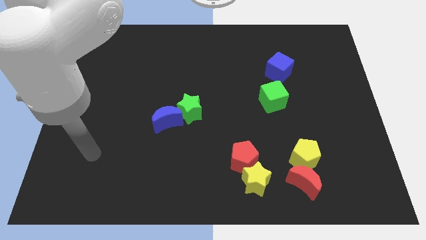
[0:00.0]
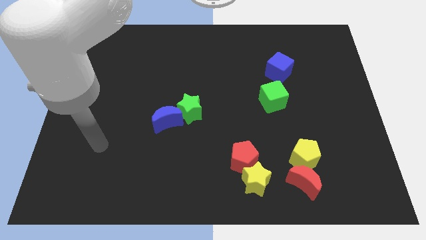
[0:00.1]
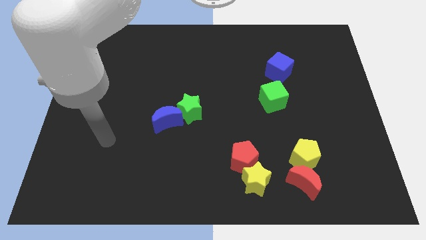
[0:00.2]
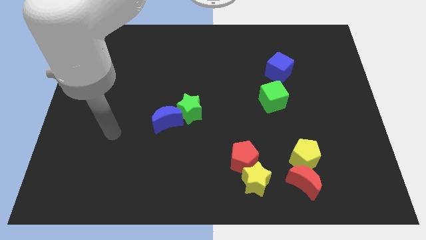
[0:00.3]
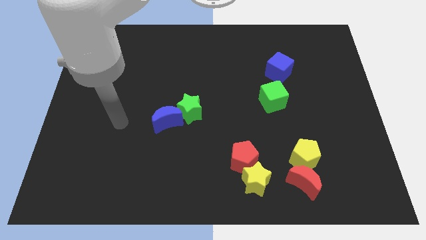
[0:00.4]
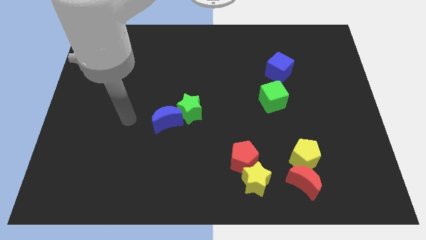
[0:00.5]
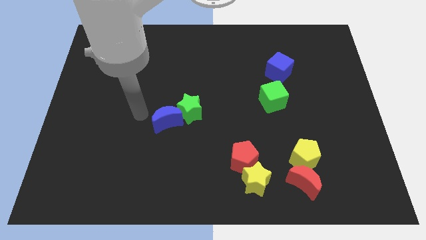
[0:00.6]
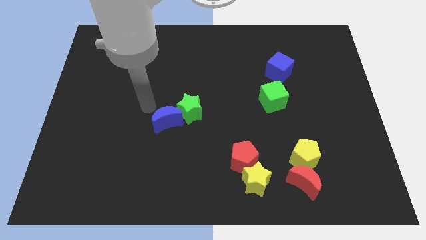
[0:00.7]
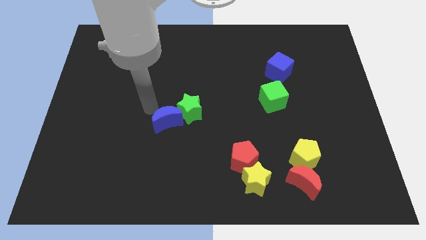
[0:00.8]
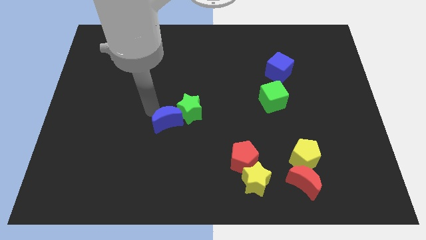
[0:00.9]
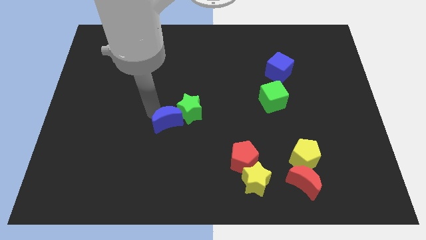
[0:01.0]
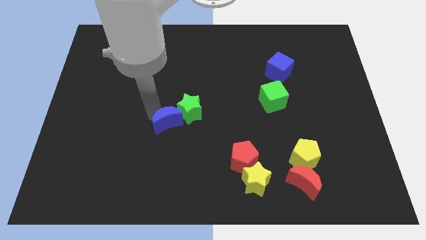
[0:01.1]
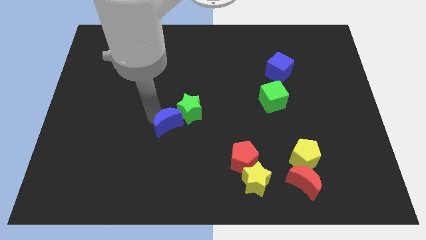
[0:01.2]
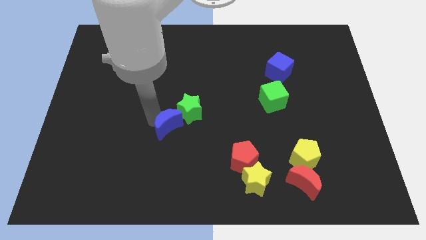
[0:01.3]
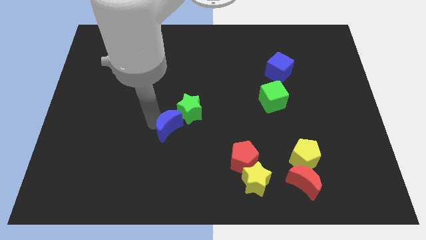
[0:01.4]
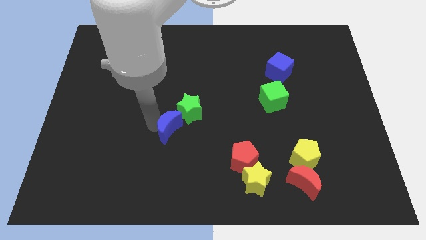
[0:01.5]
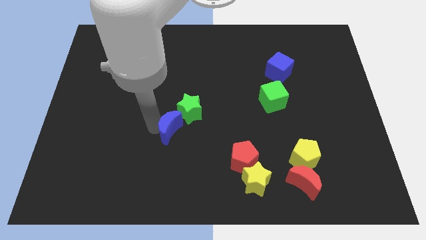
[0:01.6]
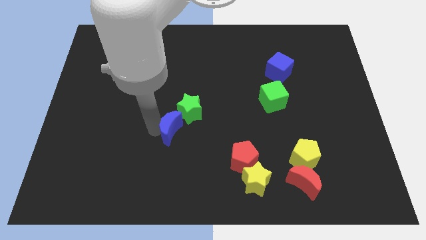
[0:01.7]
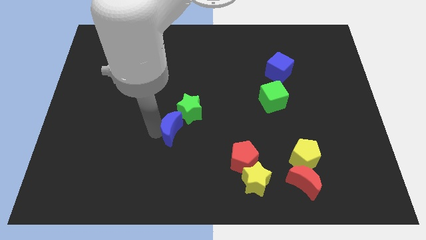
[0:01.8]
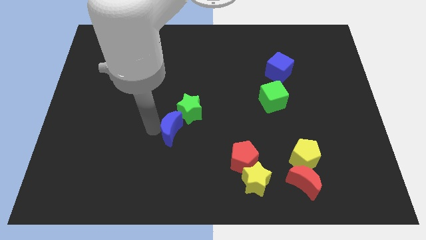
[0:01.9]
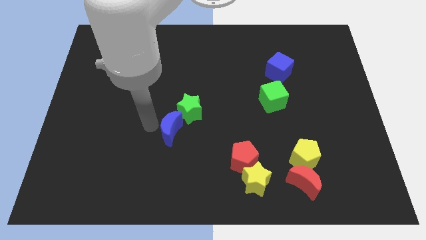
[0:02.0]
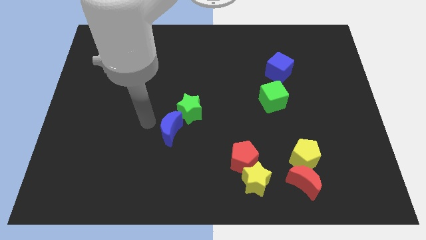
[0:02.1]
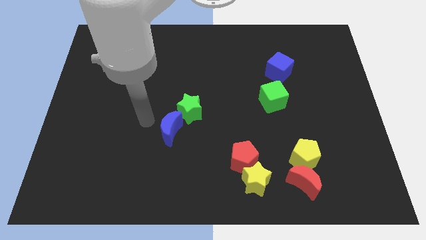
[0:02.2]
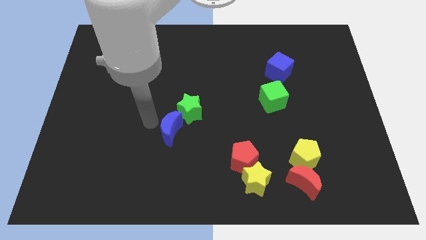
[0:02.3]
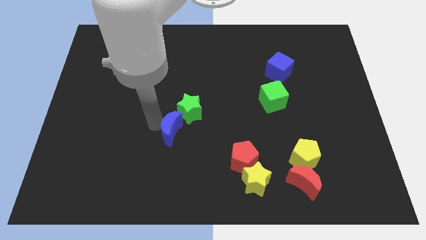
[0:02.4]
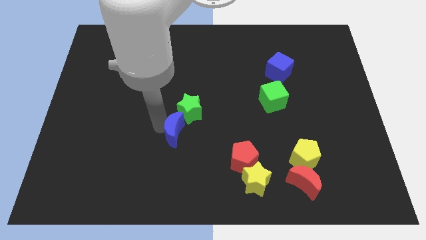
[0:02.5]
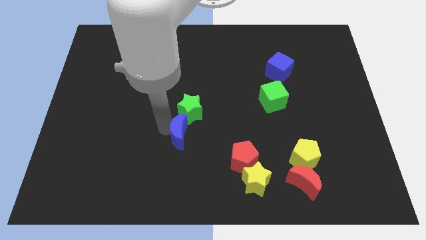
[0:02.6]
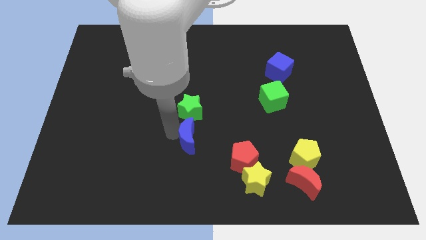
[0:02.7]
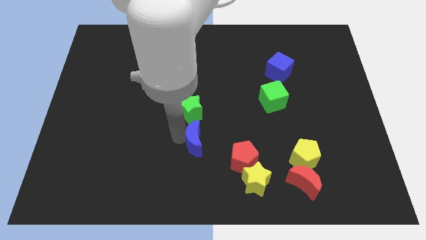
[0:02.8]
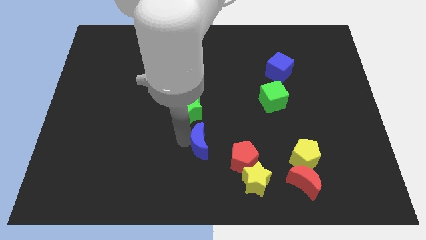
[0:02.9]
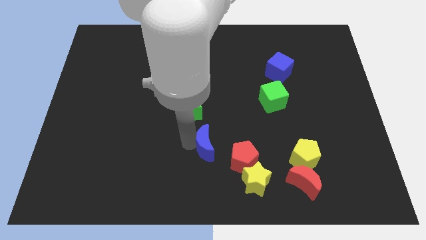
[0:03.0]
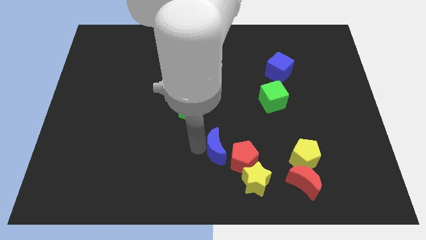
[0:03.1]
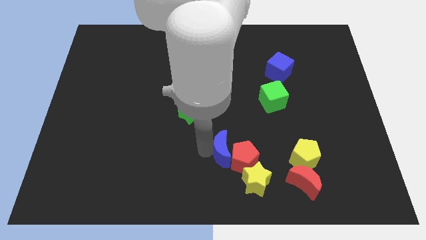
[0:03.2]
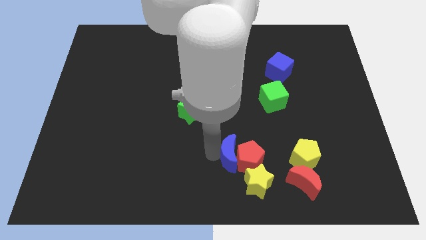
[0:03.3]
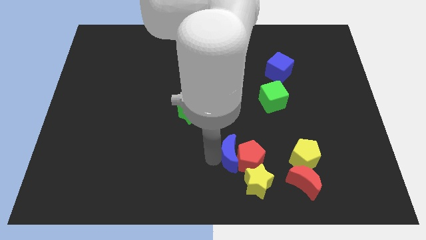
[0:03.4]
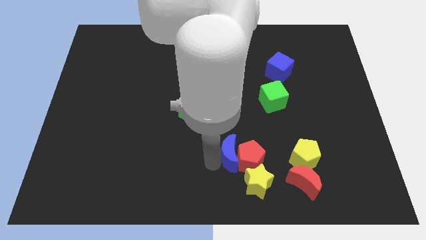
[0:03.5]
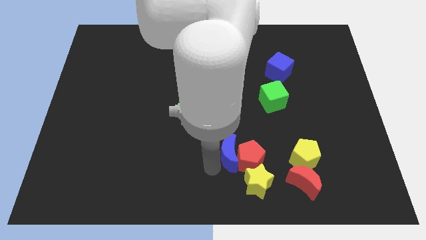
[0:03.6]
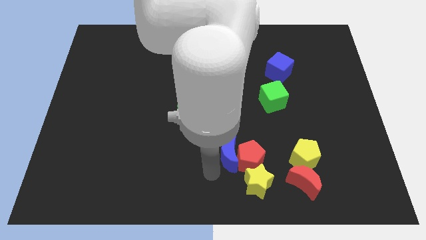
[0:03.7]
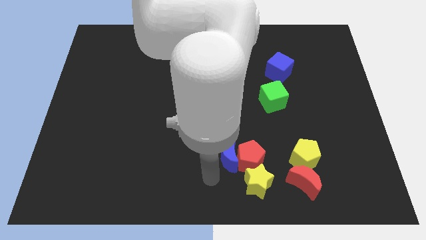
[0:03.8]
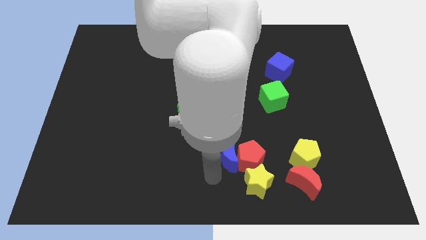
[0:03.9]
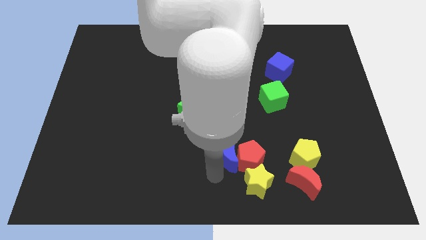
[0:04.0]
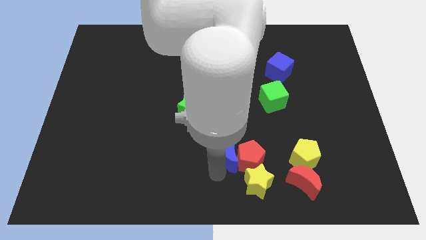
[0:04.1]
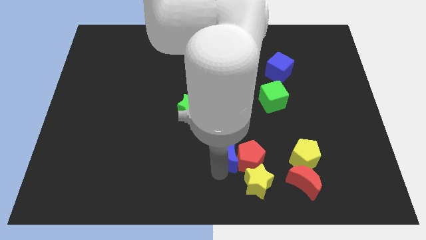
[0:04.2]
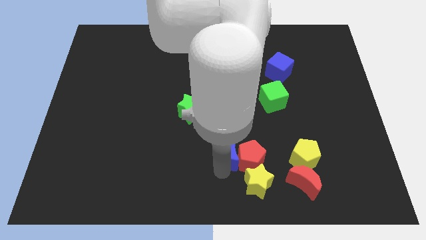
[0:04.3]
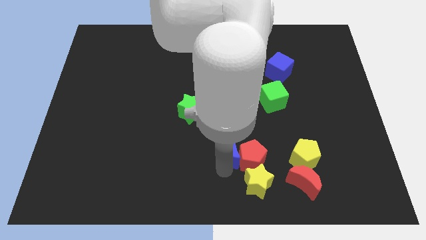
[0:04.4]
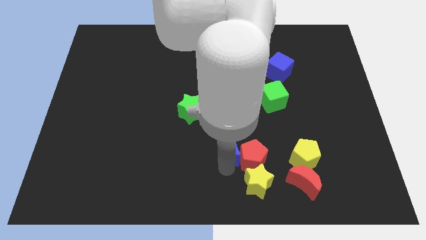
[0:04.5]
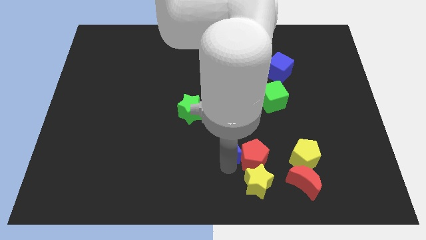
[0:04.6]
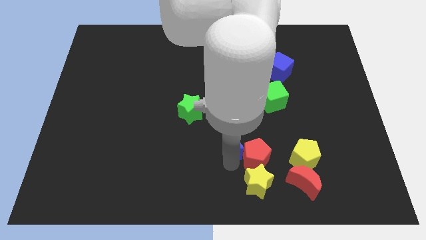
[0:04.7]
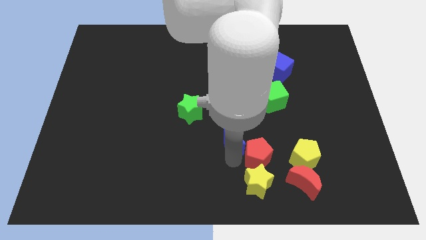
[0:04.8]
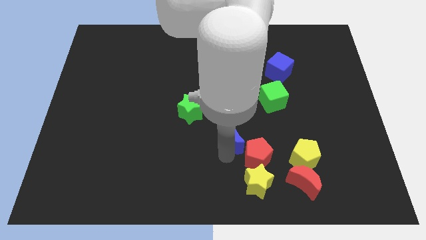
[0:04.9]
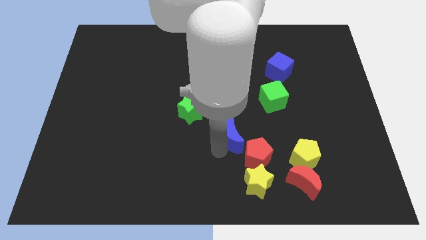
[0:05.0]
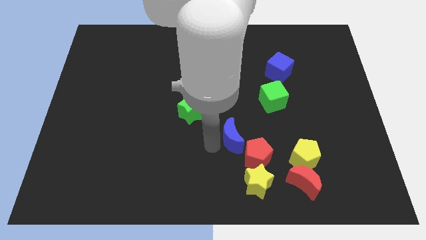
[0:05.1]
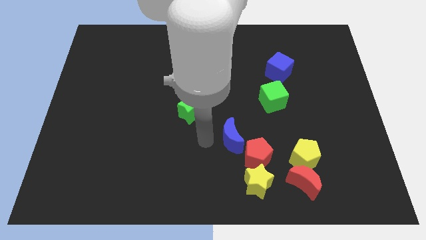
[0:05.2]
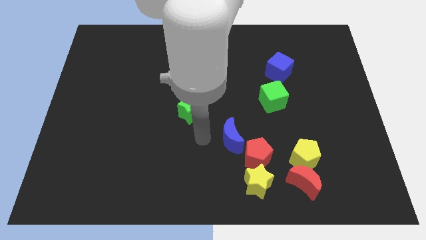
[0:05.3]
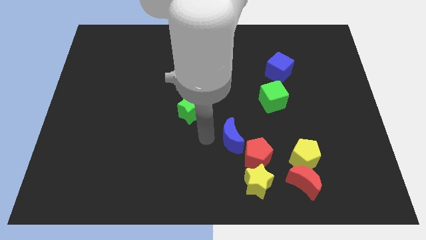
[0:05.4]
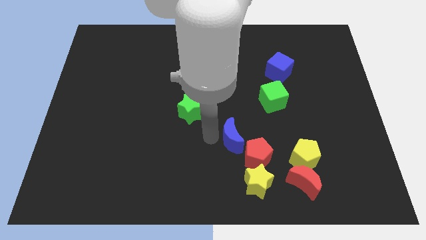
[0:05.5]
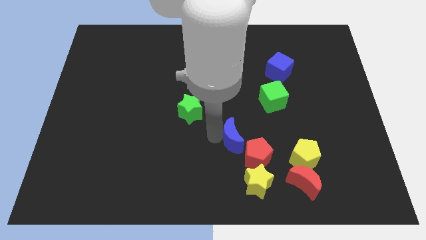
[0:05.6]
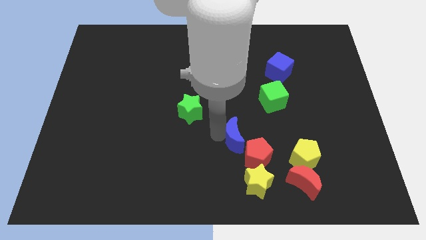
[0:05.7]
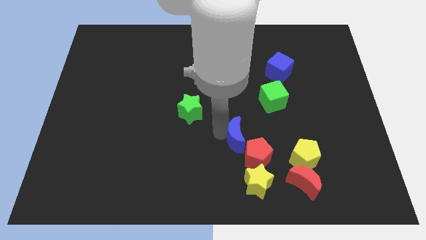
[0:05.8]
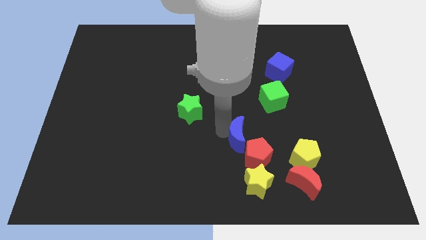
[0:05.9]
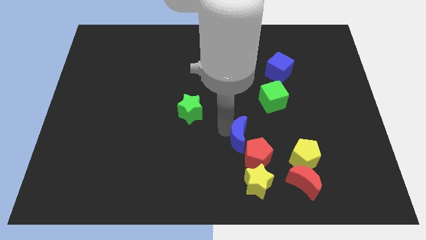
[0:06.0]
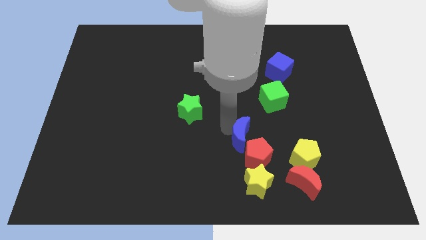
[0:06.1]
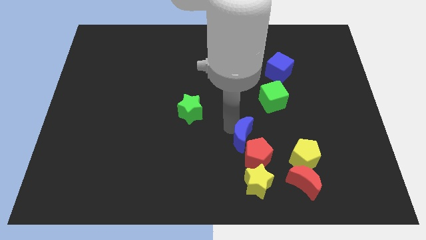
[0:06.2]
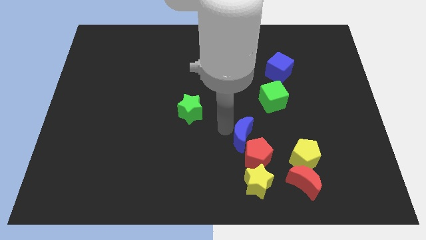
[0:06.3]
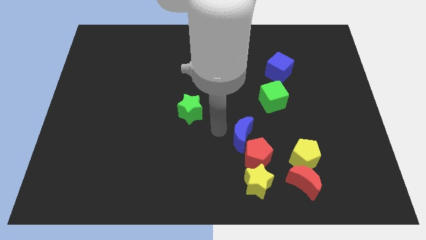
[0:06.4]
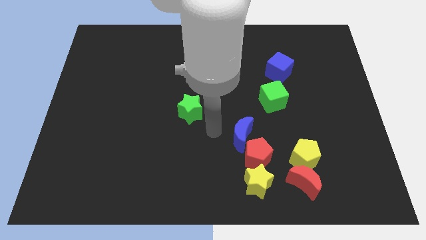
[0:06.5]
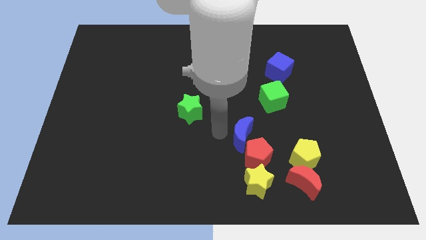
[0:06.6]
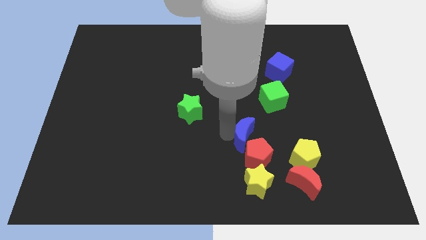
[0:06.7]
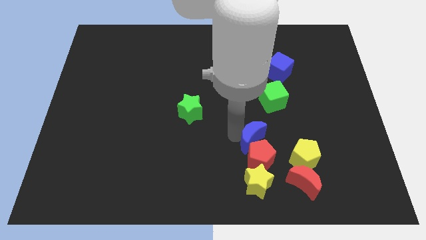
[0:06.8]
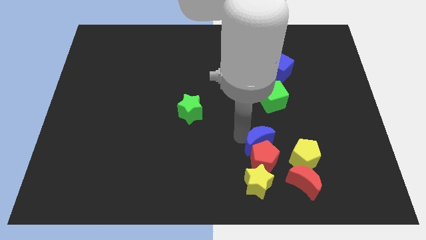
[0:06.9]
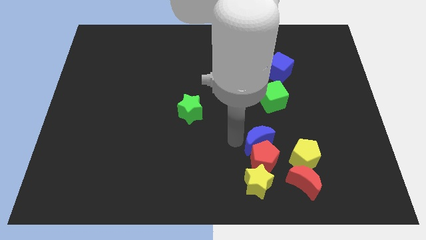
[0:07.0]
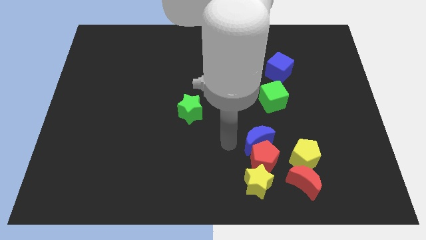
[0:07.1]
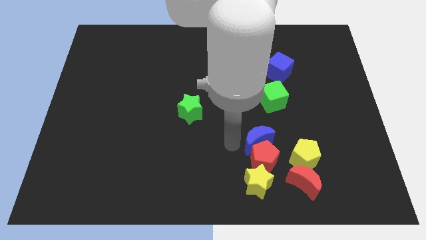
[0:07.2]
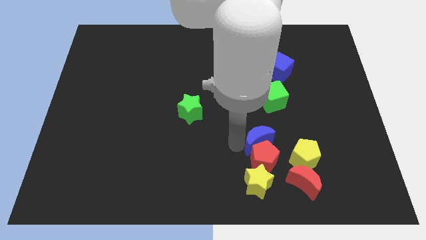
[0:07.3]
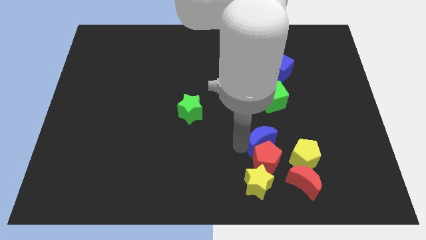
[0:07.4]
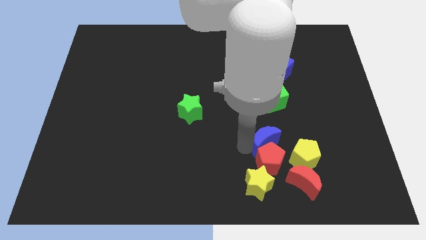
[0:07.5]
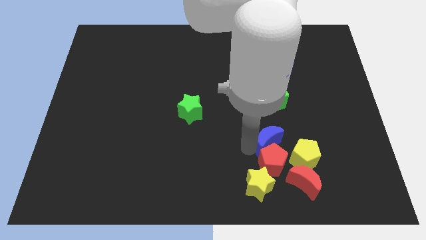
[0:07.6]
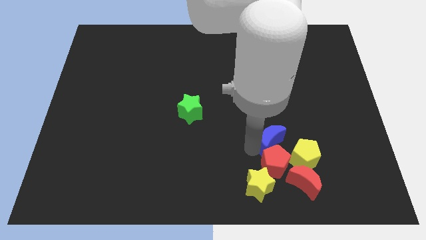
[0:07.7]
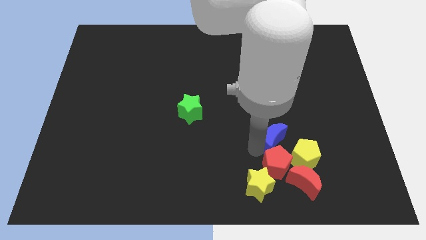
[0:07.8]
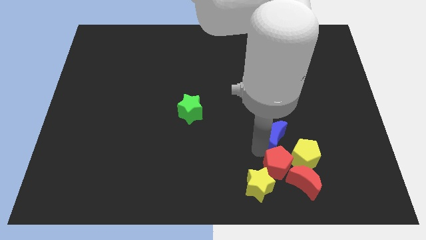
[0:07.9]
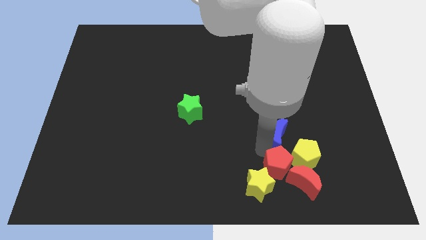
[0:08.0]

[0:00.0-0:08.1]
move the blue moon above the red moon
